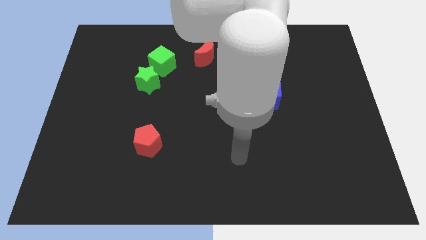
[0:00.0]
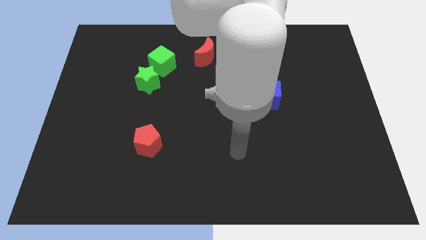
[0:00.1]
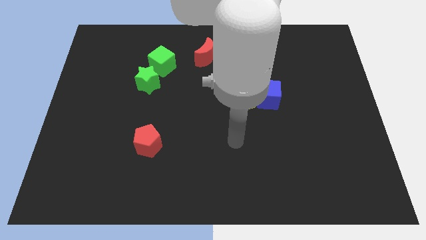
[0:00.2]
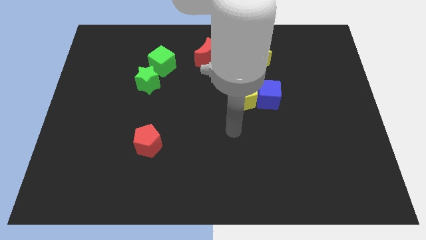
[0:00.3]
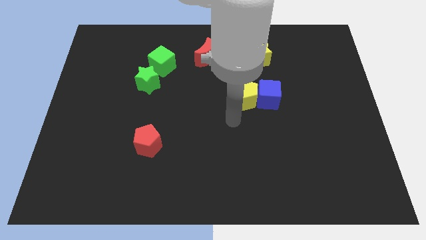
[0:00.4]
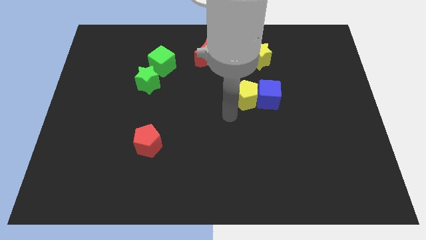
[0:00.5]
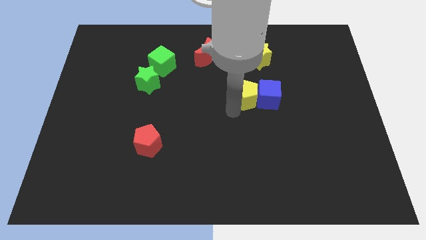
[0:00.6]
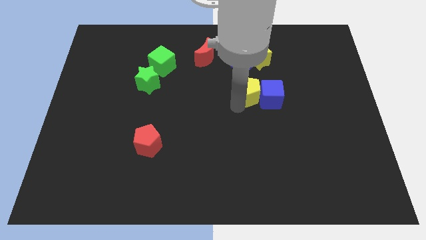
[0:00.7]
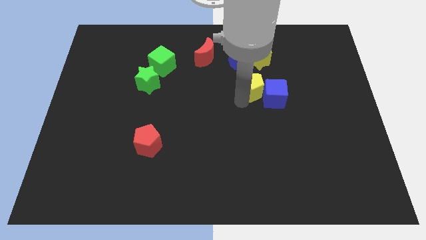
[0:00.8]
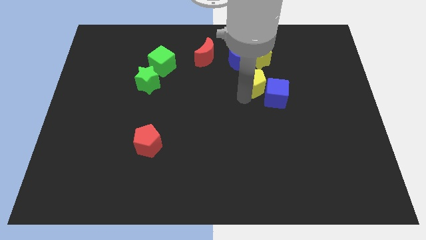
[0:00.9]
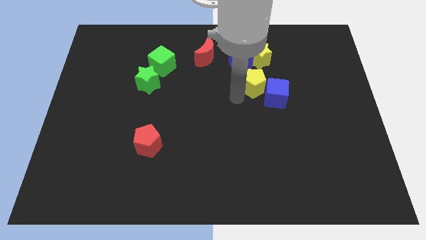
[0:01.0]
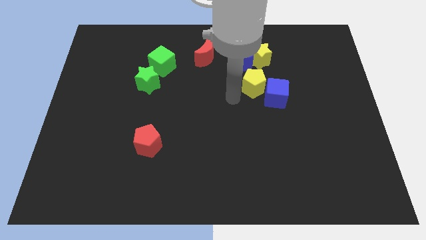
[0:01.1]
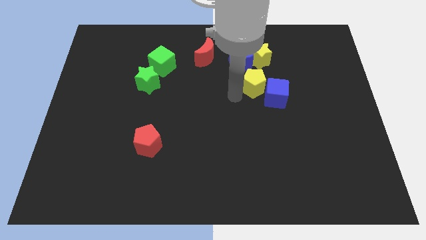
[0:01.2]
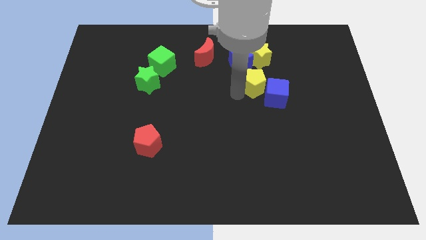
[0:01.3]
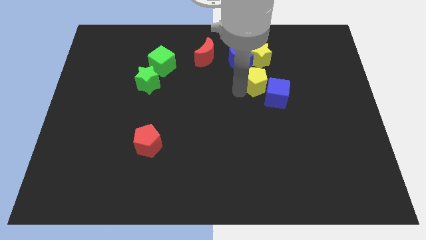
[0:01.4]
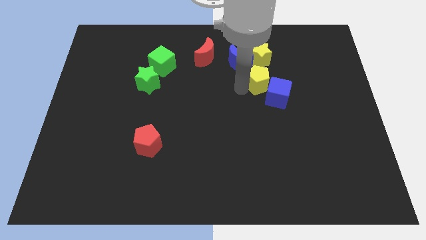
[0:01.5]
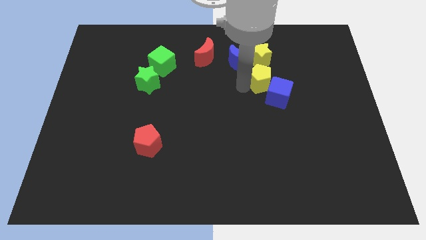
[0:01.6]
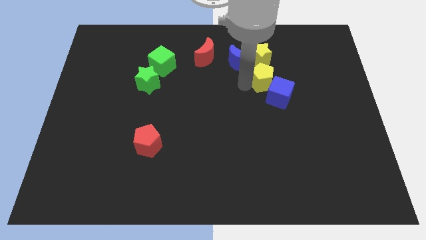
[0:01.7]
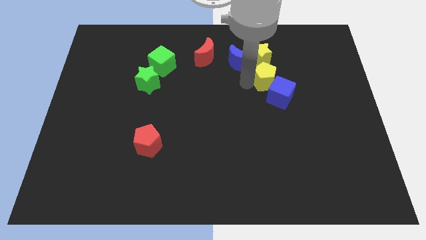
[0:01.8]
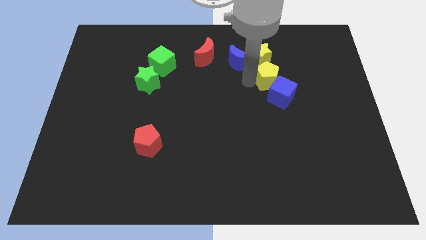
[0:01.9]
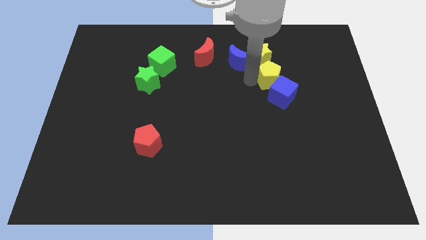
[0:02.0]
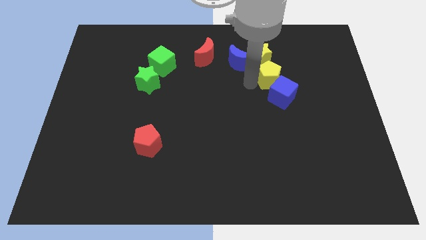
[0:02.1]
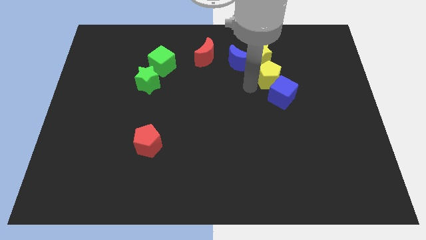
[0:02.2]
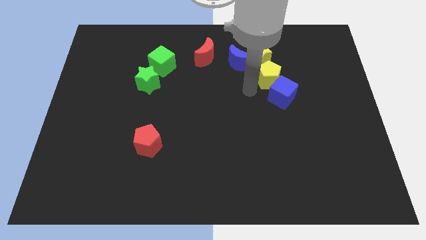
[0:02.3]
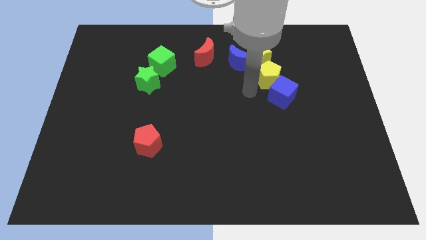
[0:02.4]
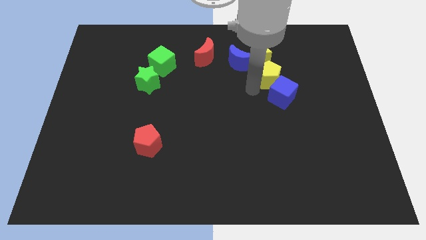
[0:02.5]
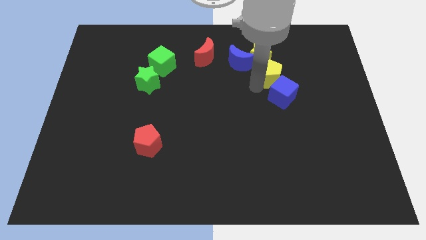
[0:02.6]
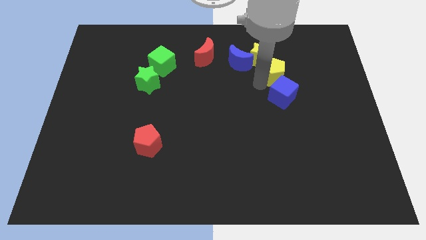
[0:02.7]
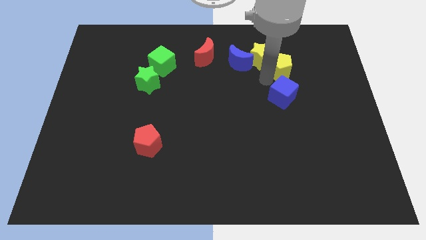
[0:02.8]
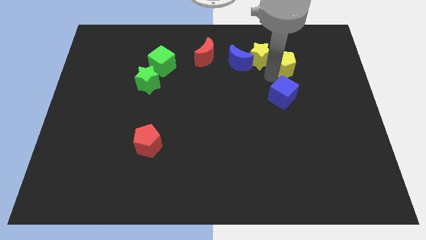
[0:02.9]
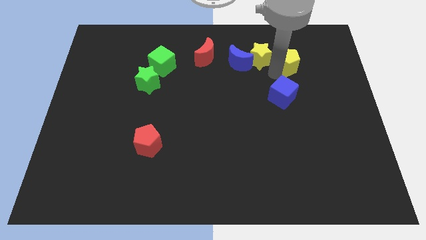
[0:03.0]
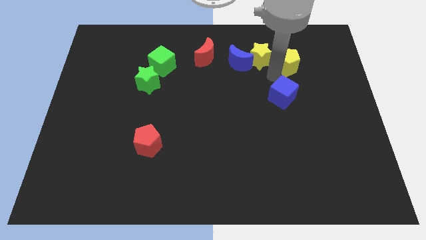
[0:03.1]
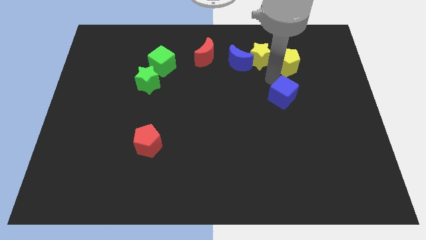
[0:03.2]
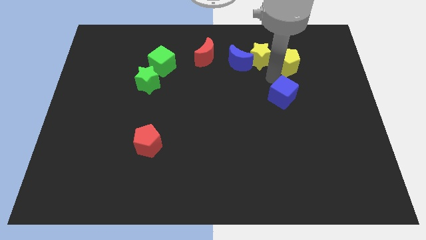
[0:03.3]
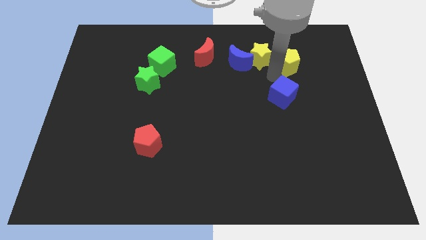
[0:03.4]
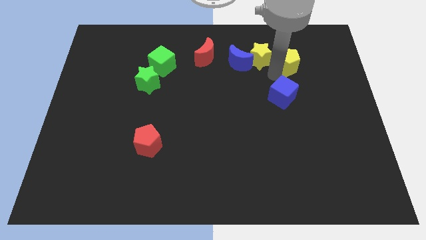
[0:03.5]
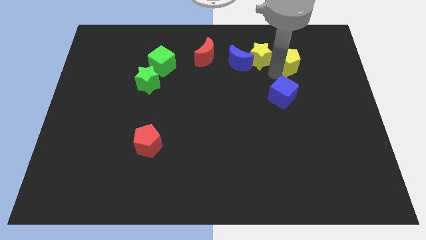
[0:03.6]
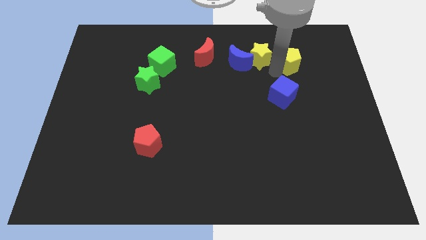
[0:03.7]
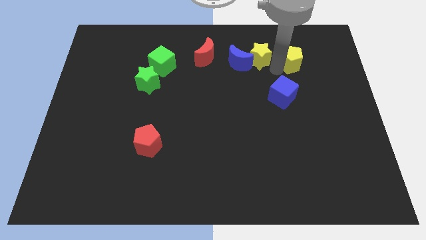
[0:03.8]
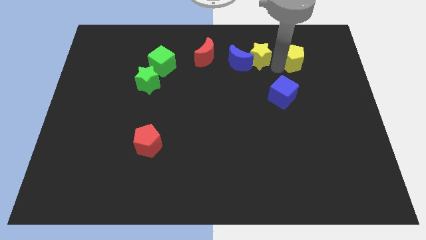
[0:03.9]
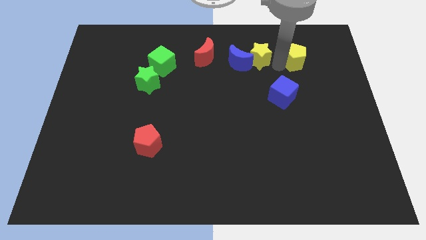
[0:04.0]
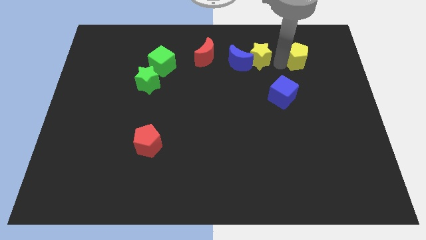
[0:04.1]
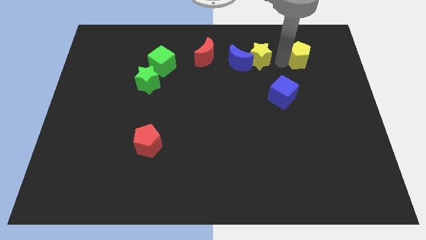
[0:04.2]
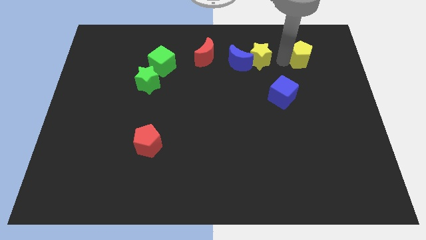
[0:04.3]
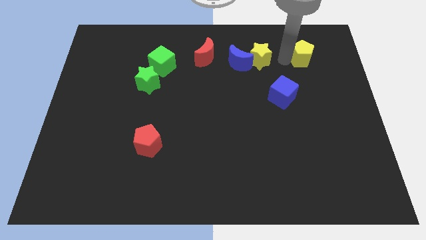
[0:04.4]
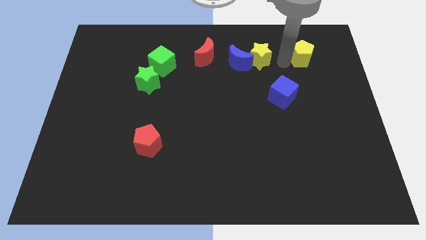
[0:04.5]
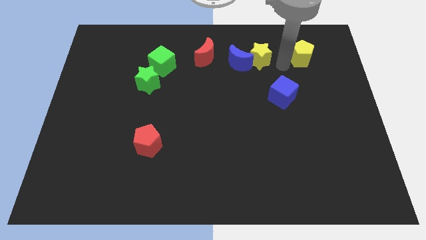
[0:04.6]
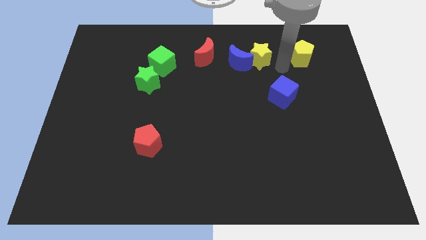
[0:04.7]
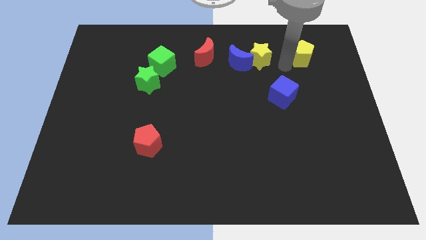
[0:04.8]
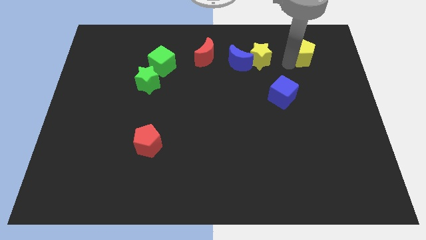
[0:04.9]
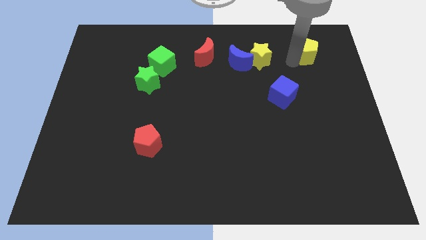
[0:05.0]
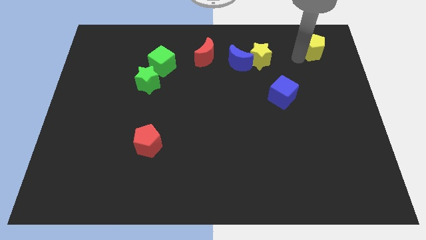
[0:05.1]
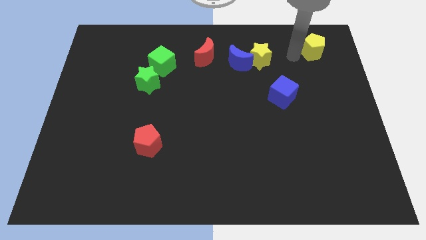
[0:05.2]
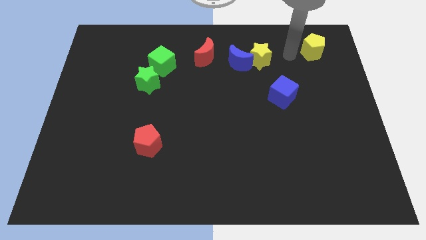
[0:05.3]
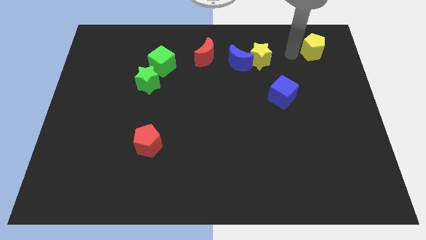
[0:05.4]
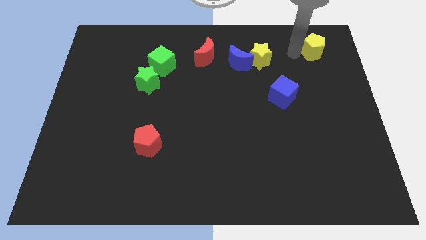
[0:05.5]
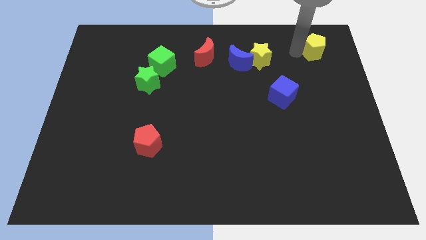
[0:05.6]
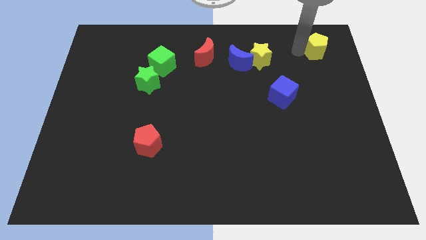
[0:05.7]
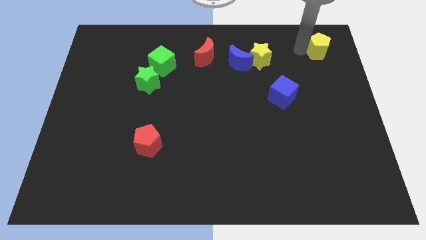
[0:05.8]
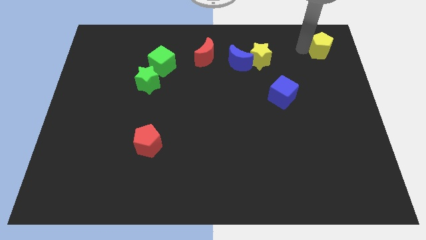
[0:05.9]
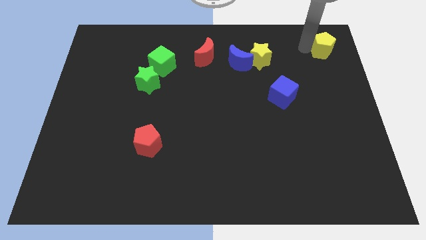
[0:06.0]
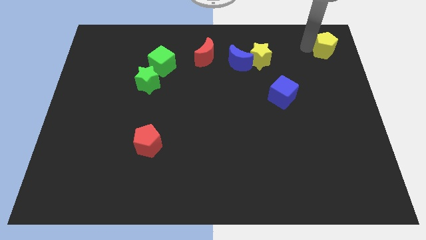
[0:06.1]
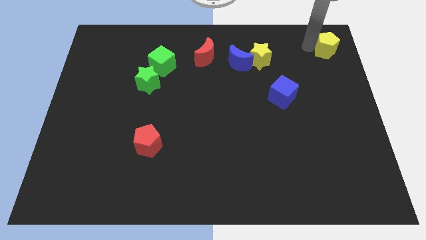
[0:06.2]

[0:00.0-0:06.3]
move the yellow pentagon to the top right corner

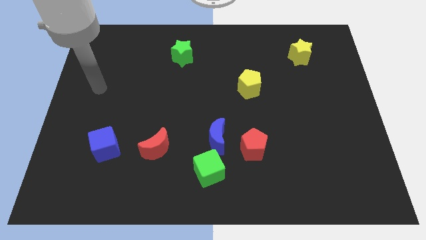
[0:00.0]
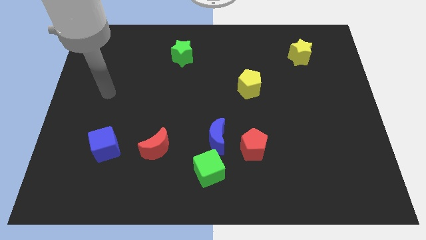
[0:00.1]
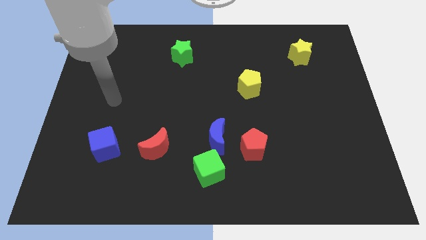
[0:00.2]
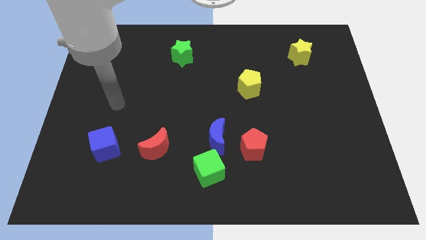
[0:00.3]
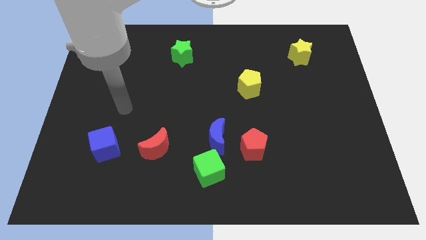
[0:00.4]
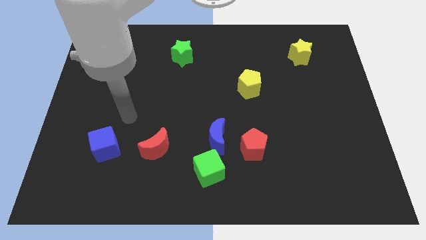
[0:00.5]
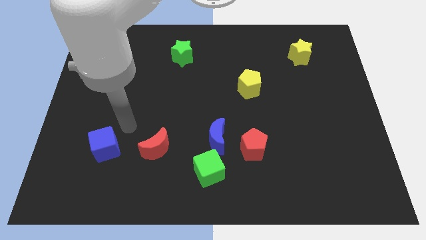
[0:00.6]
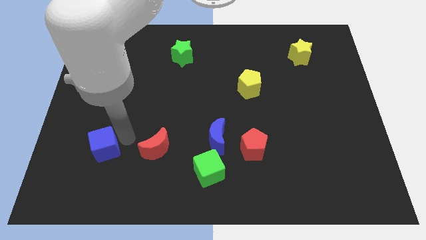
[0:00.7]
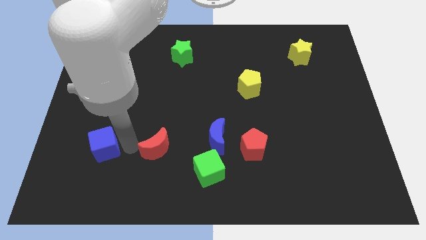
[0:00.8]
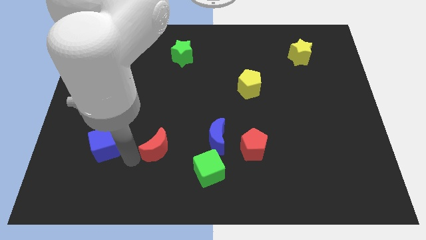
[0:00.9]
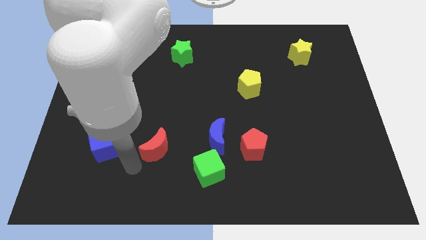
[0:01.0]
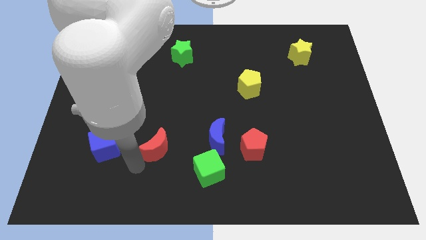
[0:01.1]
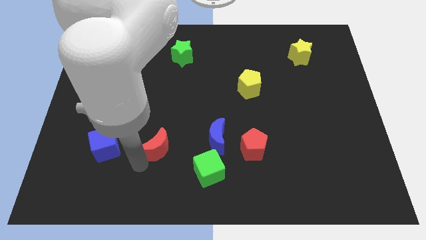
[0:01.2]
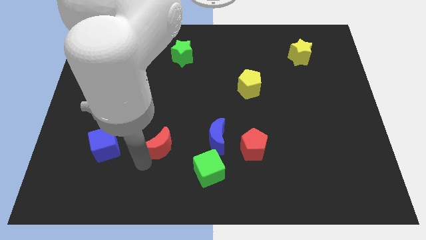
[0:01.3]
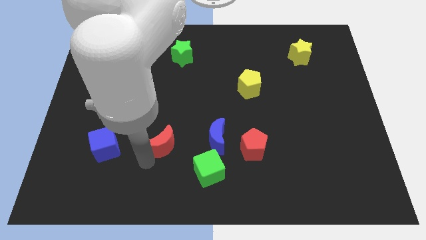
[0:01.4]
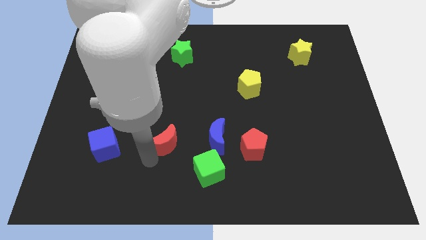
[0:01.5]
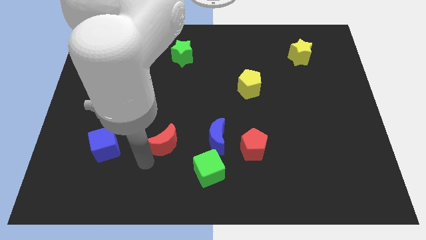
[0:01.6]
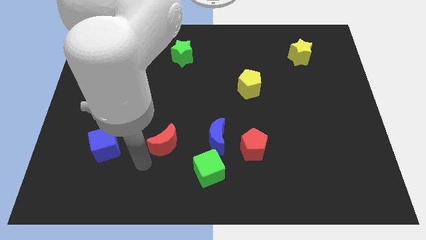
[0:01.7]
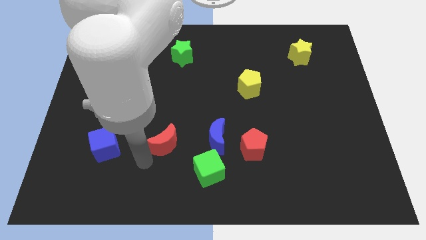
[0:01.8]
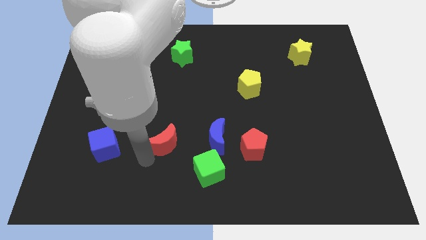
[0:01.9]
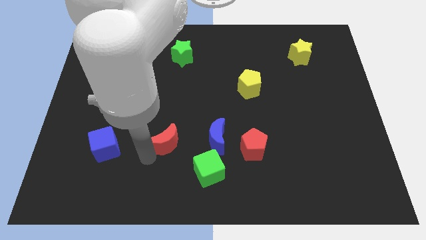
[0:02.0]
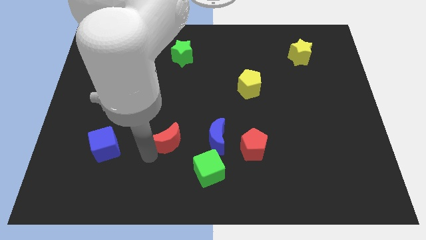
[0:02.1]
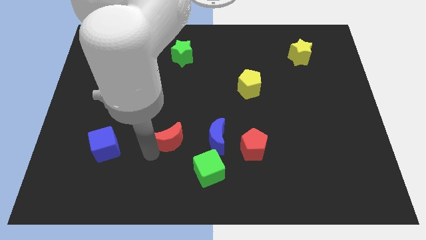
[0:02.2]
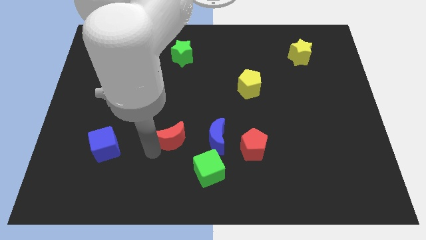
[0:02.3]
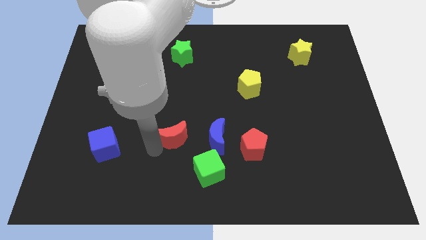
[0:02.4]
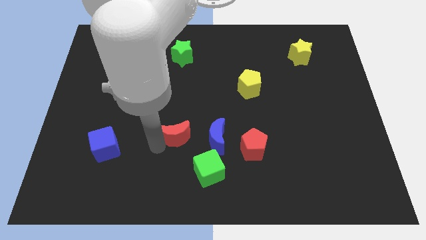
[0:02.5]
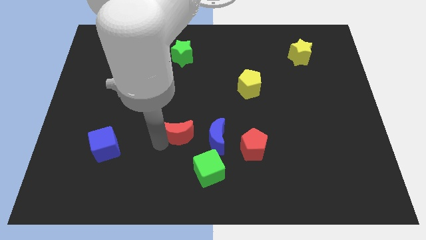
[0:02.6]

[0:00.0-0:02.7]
slide the red moon to the middle of the board
